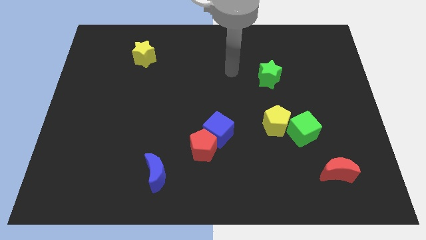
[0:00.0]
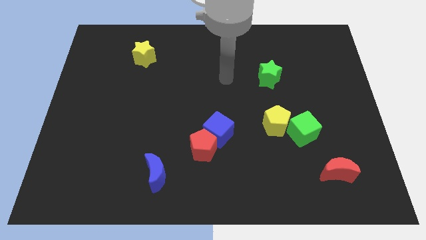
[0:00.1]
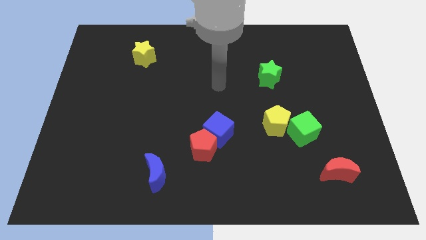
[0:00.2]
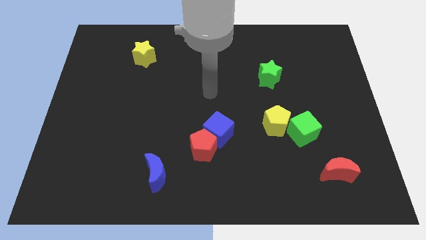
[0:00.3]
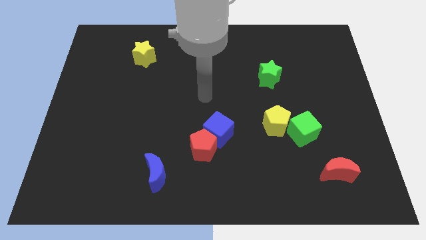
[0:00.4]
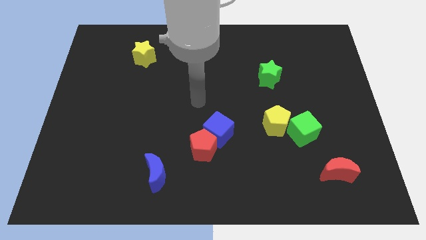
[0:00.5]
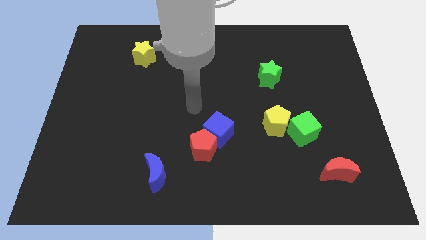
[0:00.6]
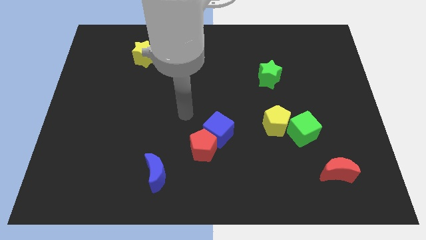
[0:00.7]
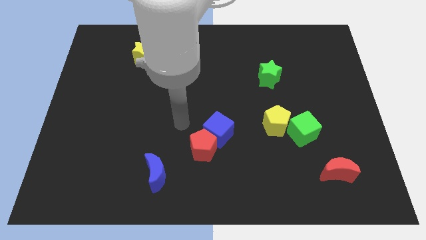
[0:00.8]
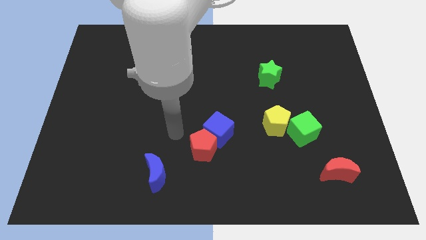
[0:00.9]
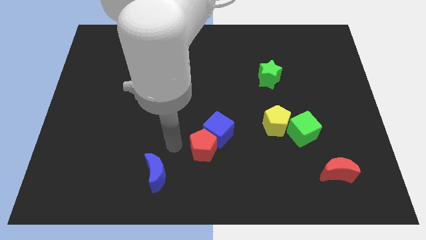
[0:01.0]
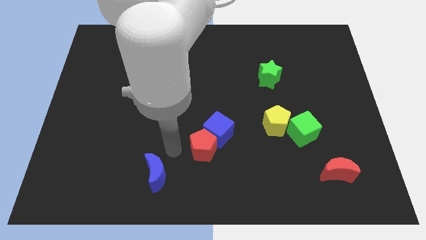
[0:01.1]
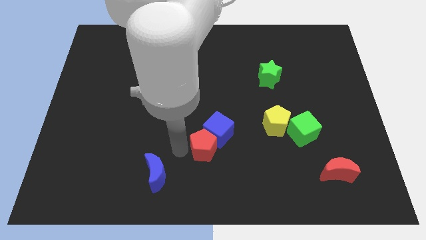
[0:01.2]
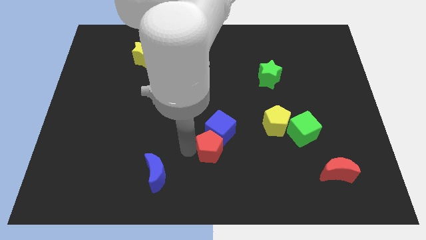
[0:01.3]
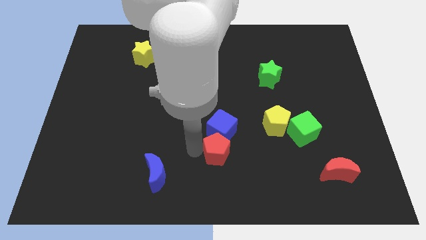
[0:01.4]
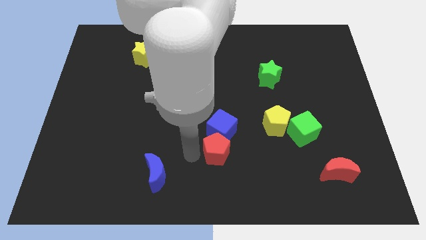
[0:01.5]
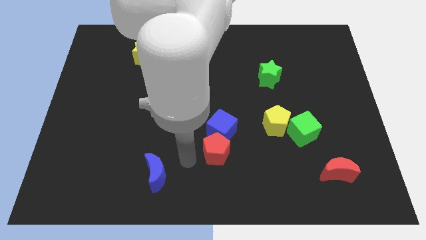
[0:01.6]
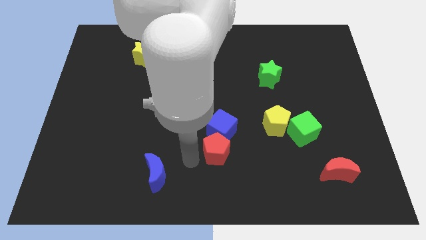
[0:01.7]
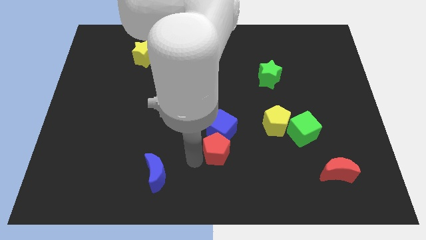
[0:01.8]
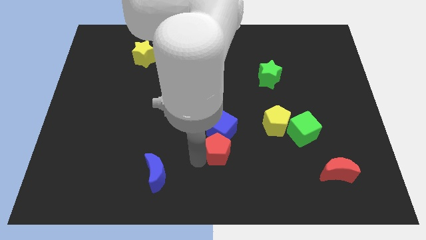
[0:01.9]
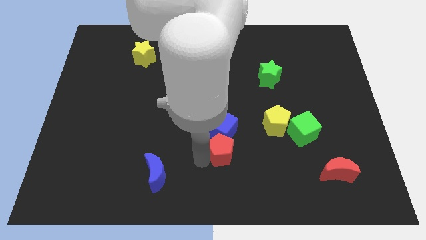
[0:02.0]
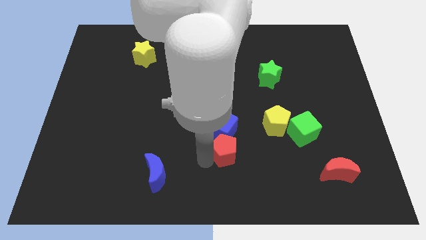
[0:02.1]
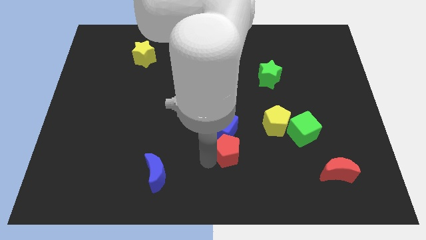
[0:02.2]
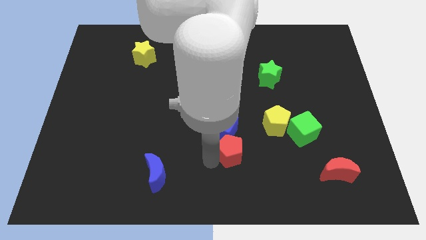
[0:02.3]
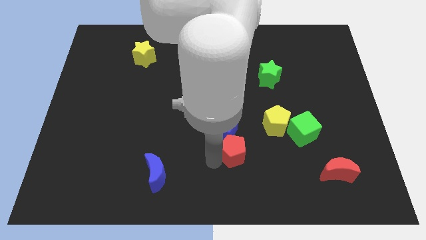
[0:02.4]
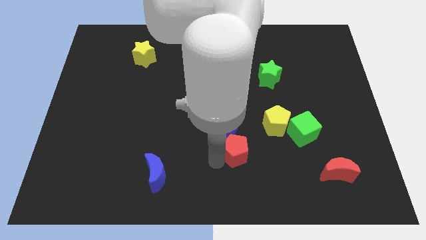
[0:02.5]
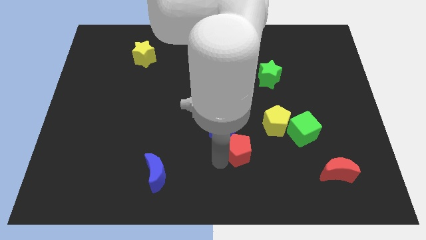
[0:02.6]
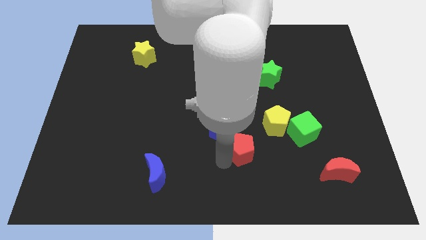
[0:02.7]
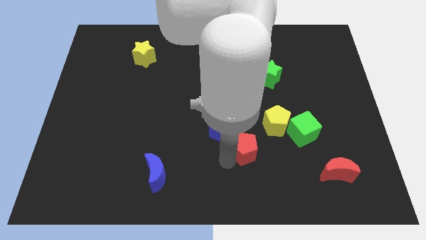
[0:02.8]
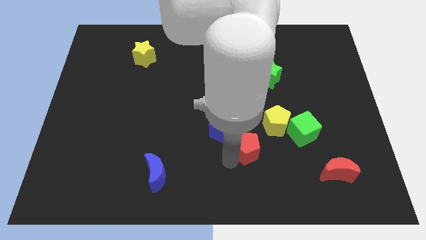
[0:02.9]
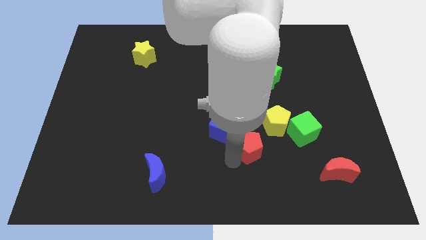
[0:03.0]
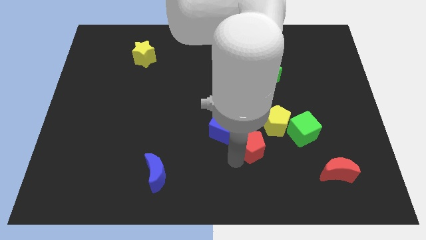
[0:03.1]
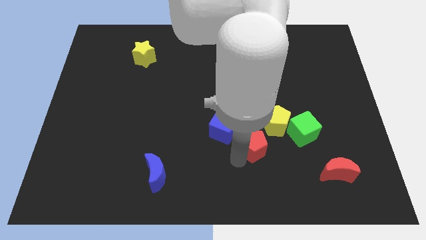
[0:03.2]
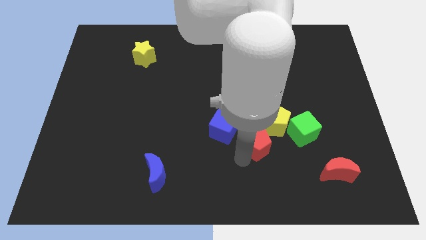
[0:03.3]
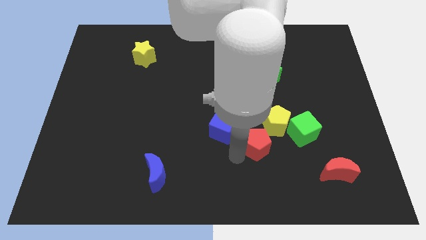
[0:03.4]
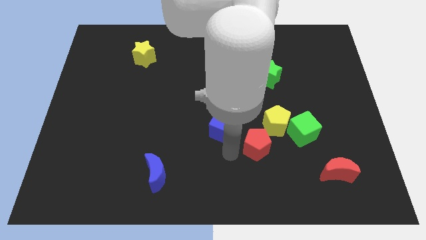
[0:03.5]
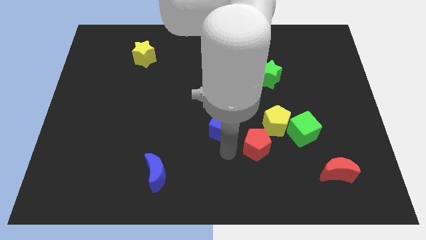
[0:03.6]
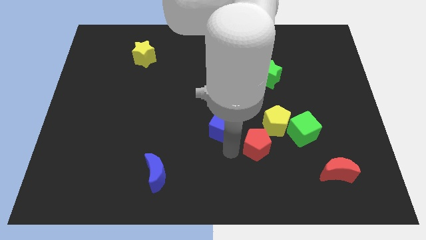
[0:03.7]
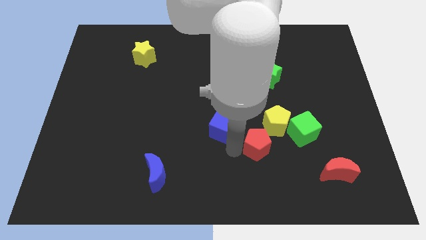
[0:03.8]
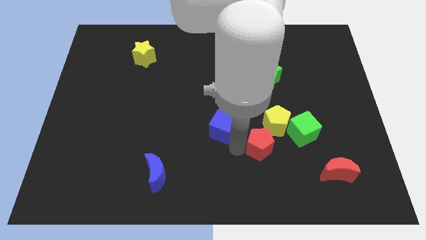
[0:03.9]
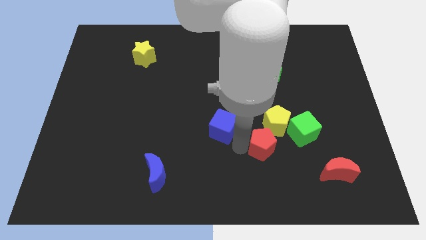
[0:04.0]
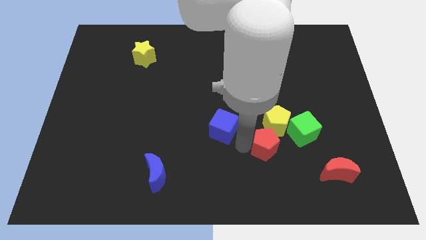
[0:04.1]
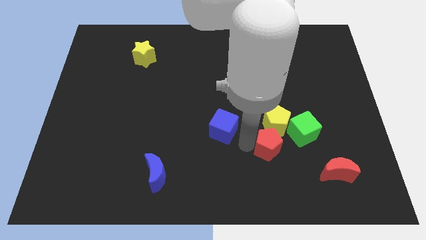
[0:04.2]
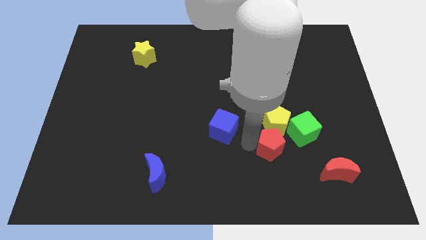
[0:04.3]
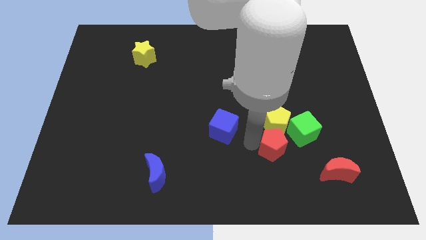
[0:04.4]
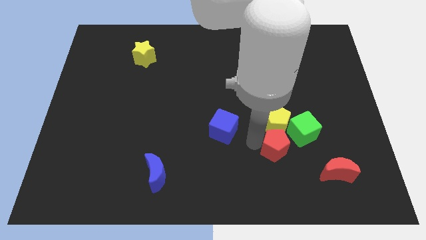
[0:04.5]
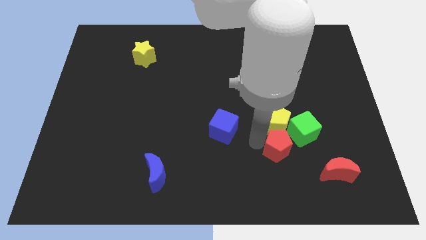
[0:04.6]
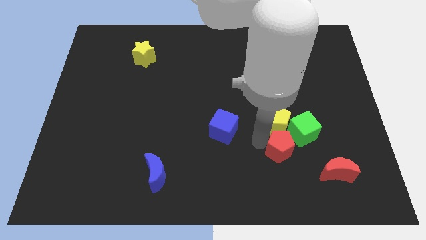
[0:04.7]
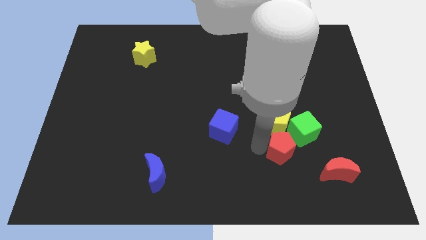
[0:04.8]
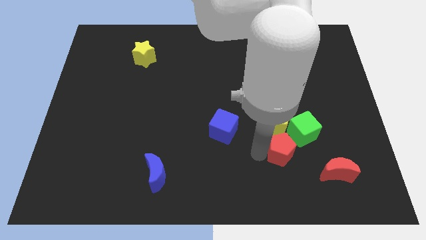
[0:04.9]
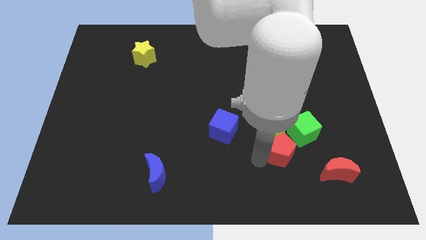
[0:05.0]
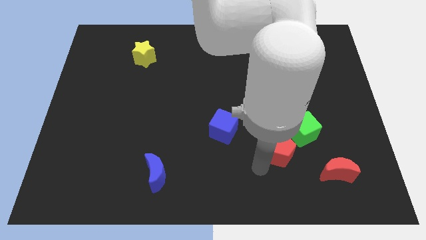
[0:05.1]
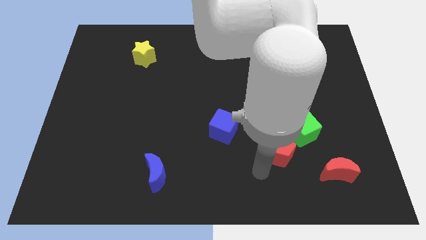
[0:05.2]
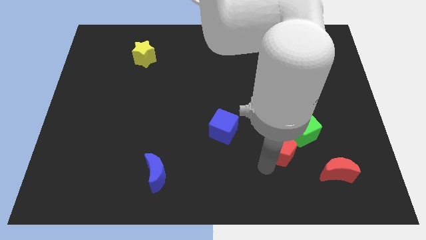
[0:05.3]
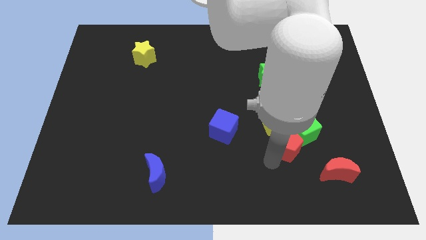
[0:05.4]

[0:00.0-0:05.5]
slide the red pentagon towards the green cube

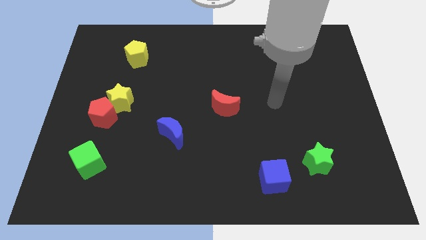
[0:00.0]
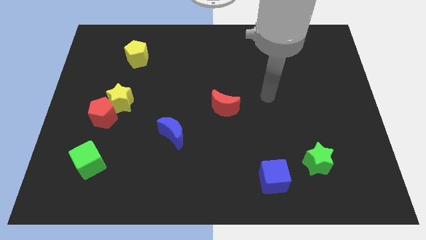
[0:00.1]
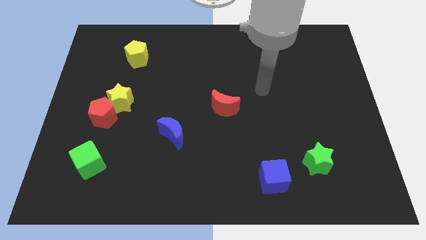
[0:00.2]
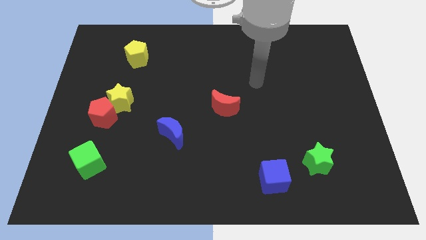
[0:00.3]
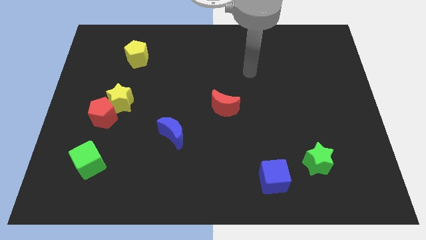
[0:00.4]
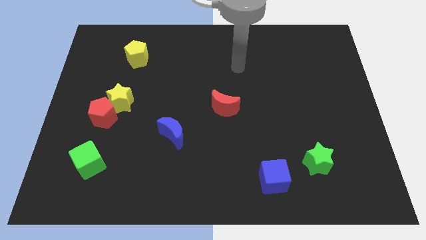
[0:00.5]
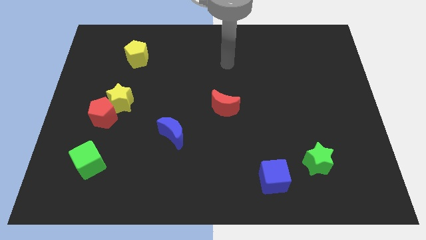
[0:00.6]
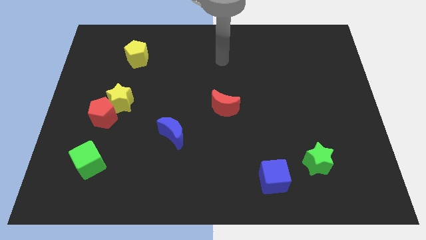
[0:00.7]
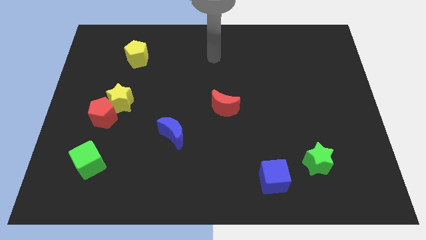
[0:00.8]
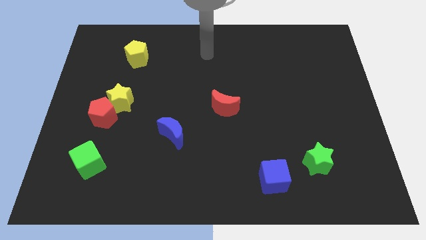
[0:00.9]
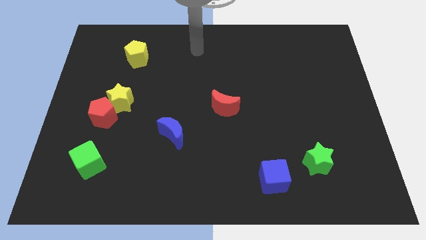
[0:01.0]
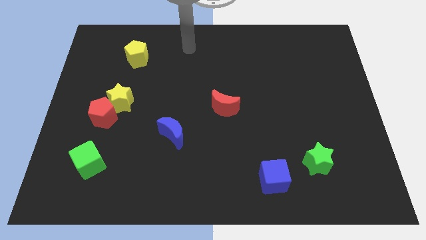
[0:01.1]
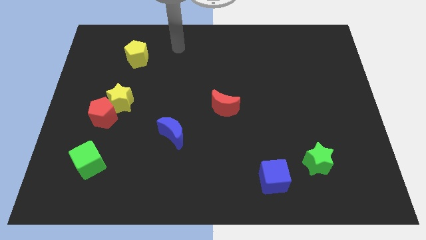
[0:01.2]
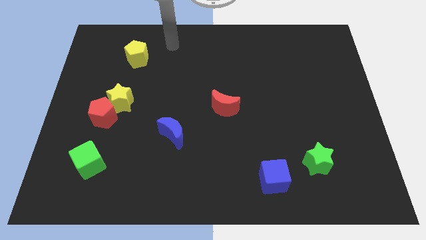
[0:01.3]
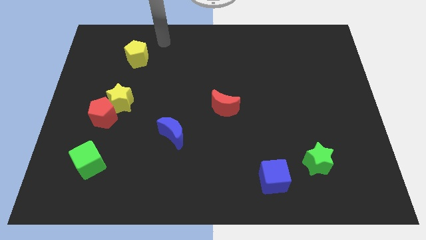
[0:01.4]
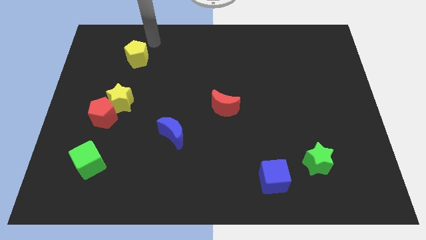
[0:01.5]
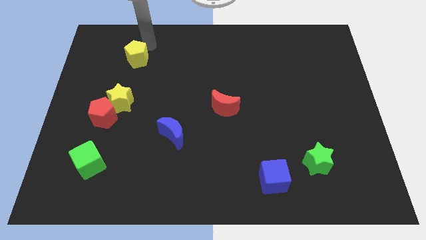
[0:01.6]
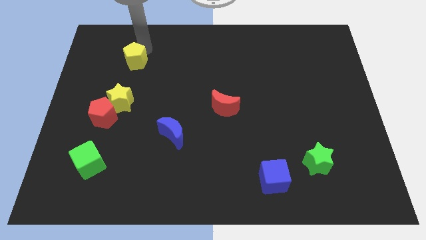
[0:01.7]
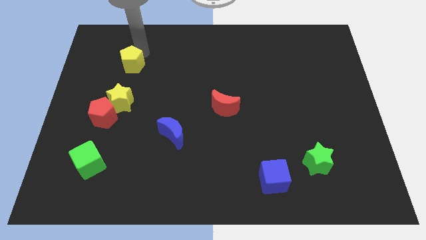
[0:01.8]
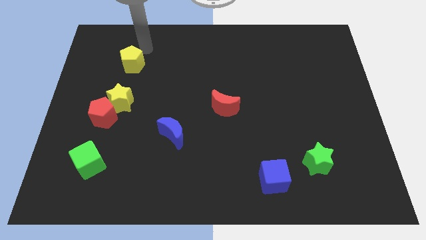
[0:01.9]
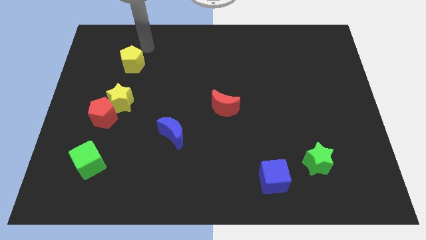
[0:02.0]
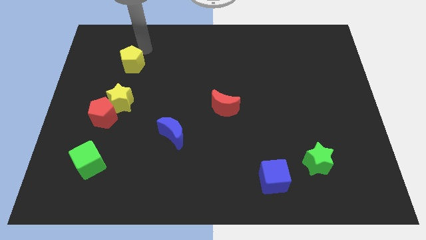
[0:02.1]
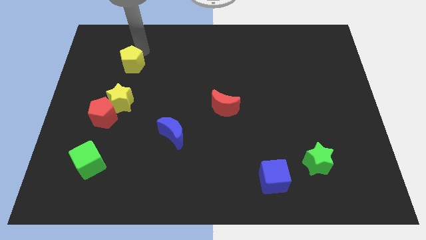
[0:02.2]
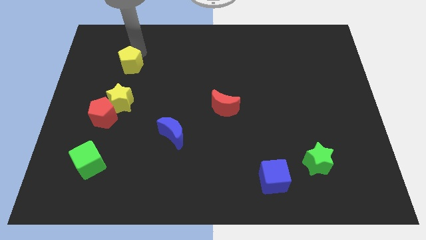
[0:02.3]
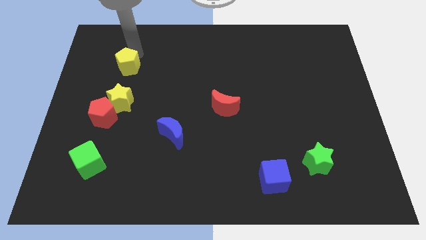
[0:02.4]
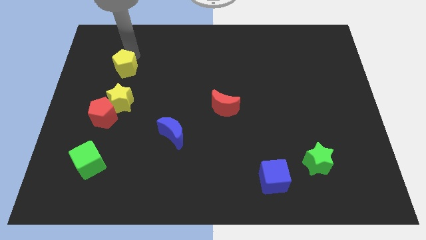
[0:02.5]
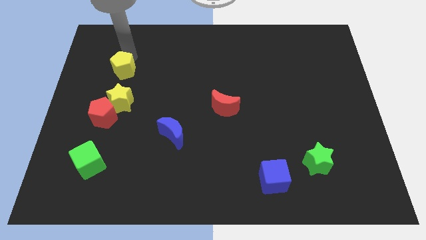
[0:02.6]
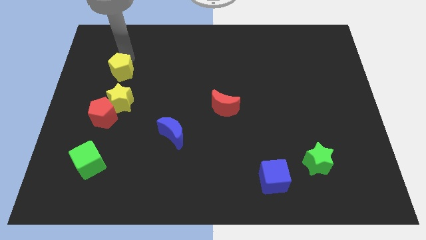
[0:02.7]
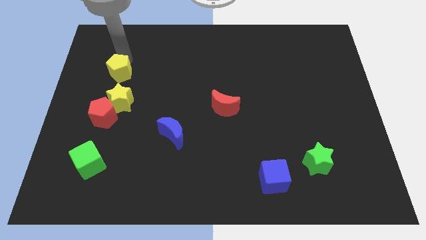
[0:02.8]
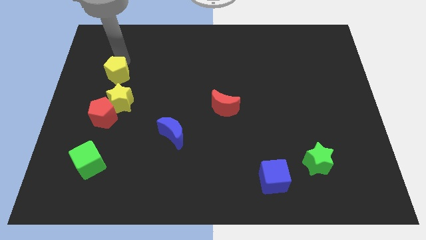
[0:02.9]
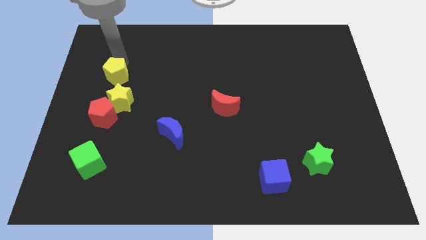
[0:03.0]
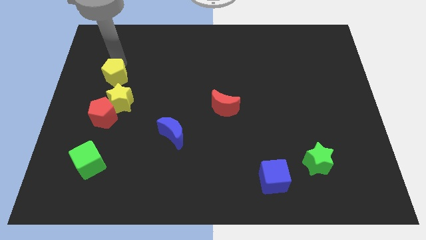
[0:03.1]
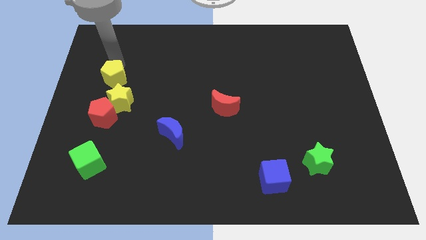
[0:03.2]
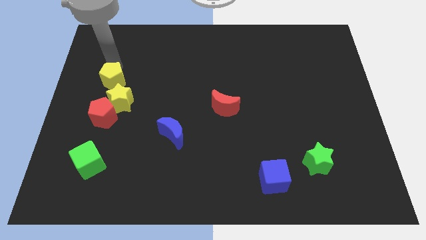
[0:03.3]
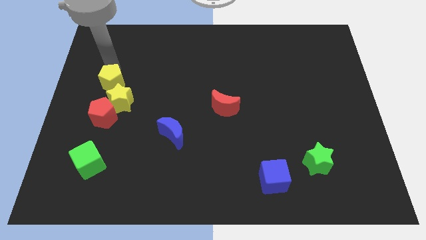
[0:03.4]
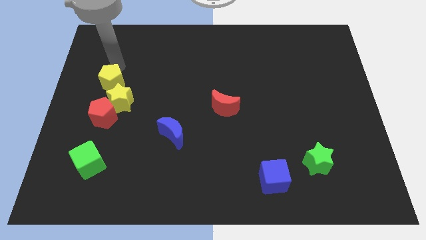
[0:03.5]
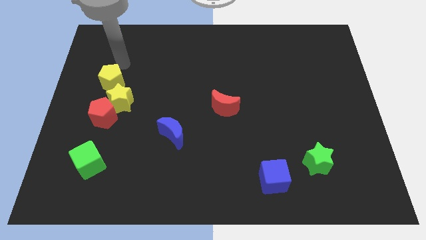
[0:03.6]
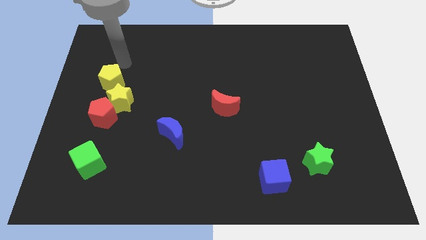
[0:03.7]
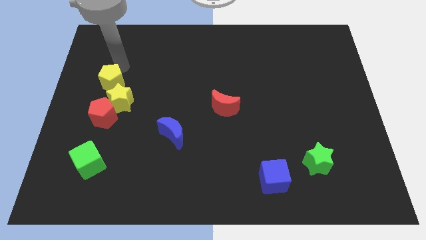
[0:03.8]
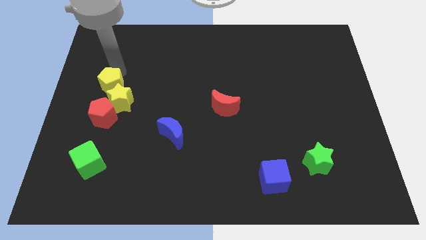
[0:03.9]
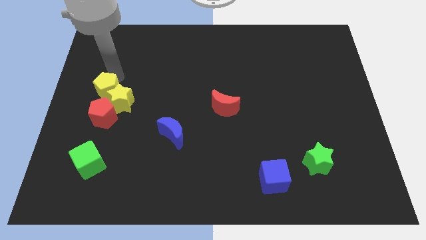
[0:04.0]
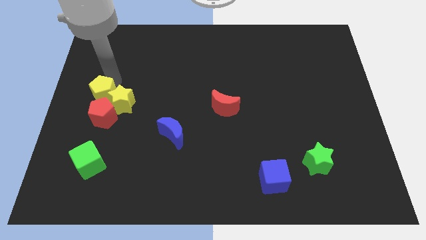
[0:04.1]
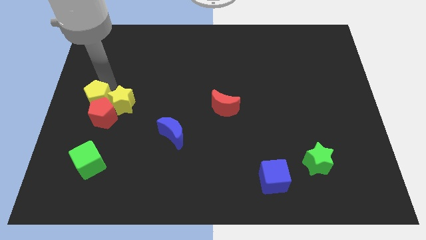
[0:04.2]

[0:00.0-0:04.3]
slide the yellow pentagon close to the red pentagon
